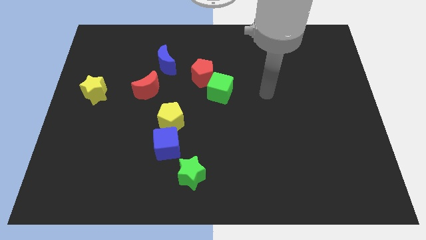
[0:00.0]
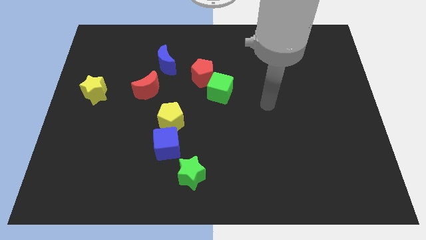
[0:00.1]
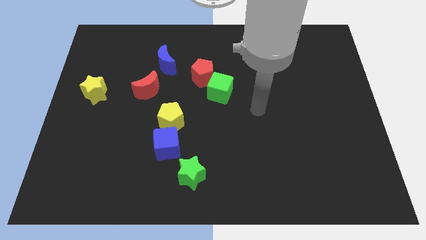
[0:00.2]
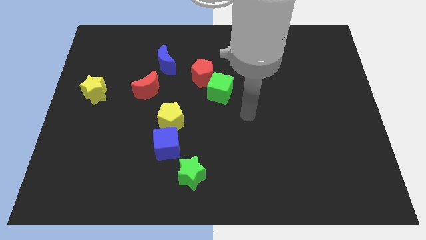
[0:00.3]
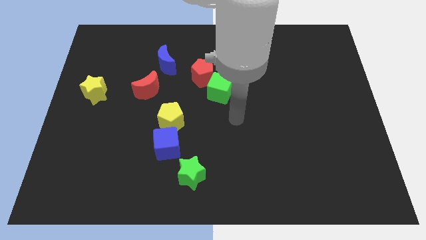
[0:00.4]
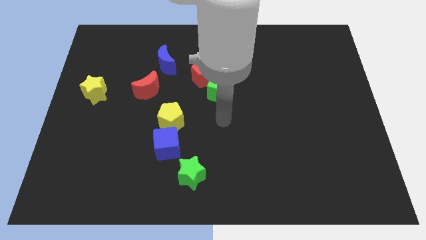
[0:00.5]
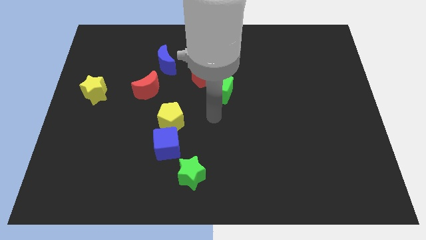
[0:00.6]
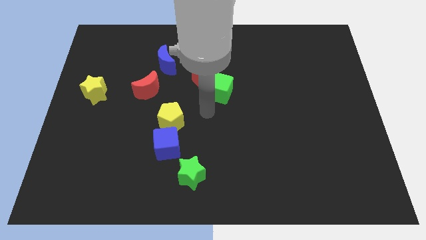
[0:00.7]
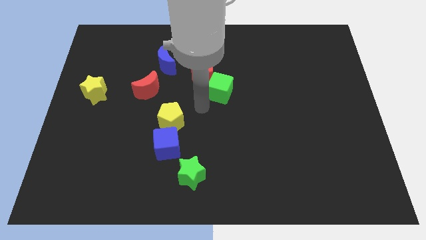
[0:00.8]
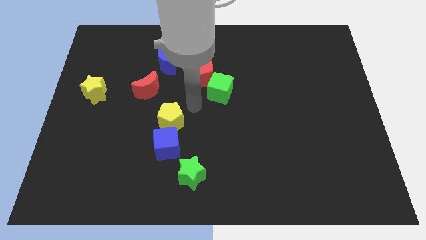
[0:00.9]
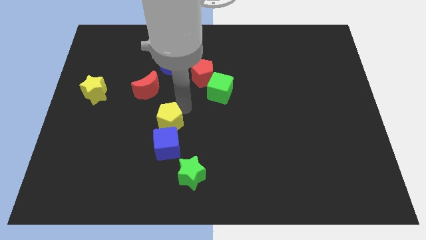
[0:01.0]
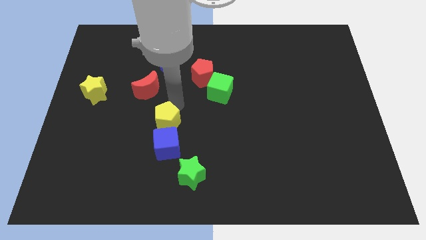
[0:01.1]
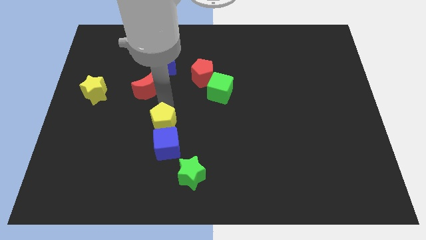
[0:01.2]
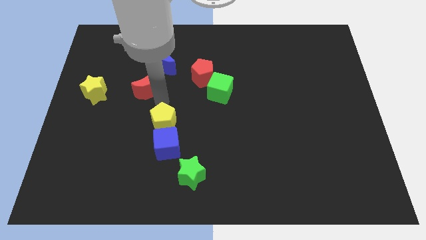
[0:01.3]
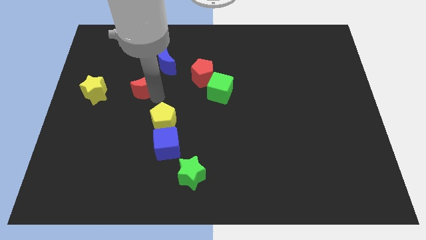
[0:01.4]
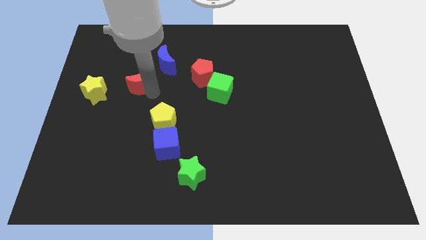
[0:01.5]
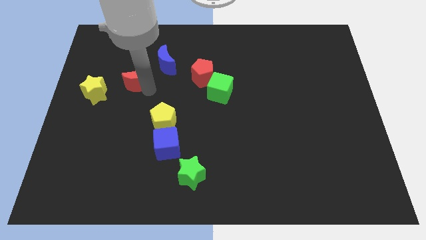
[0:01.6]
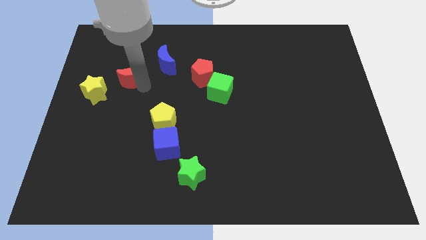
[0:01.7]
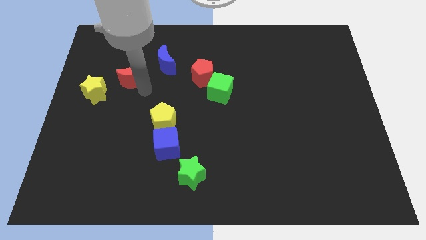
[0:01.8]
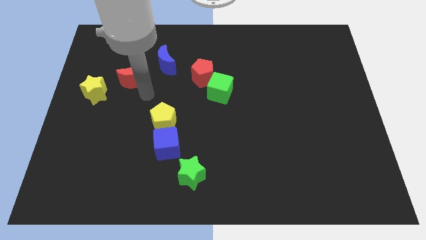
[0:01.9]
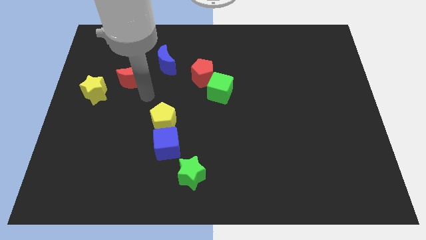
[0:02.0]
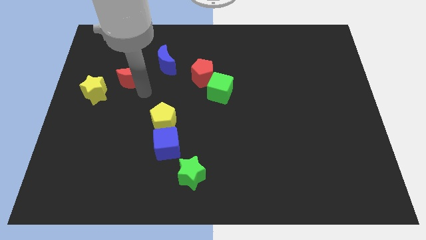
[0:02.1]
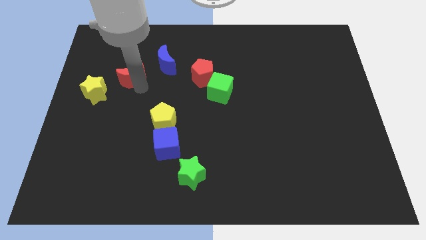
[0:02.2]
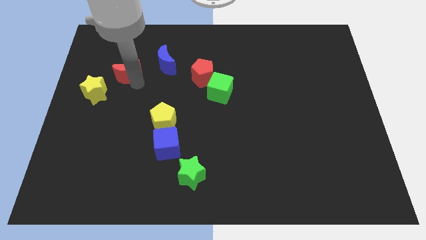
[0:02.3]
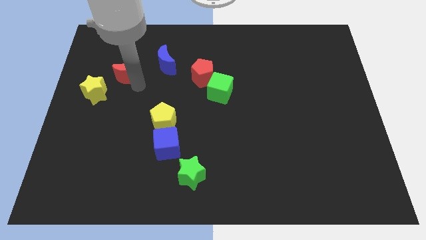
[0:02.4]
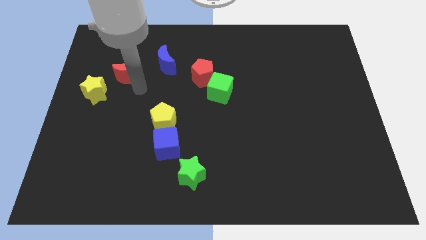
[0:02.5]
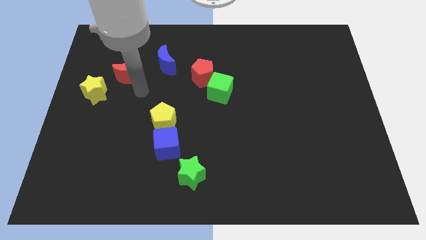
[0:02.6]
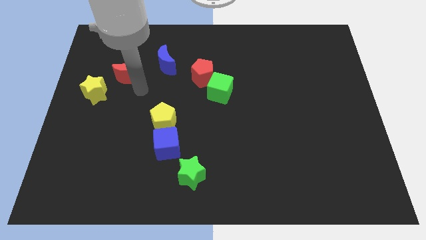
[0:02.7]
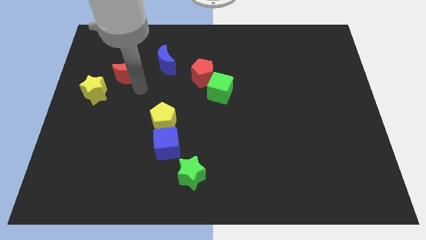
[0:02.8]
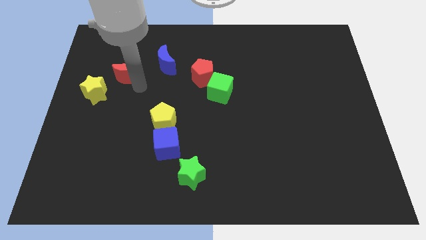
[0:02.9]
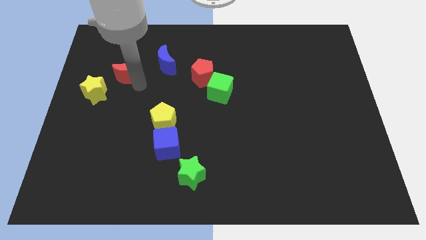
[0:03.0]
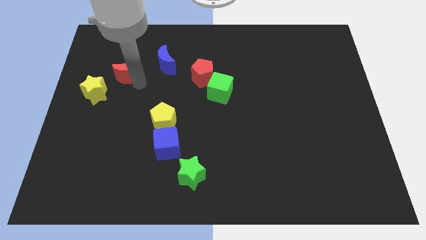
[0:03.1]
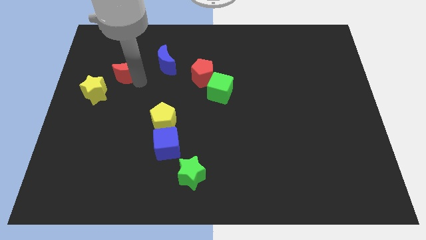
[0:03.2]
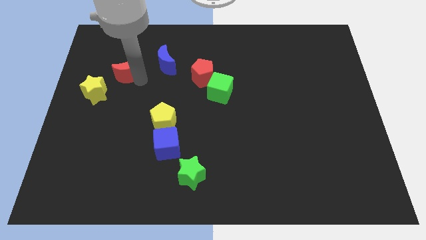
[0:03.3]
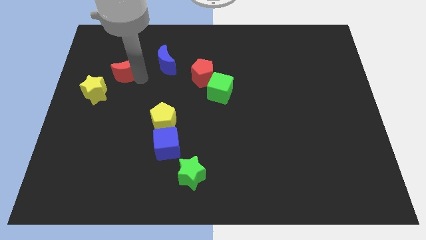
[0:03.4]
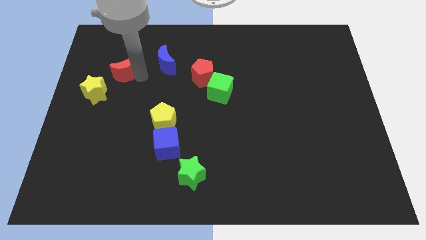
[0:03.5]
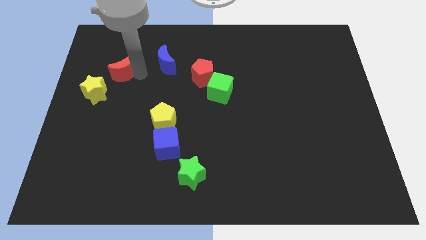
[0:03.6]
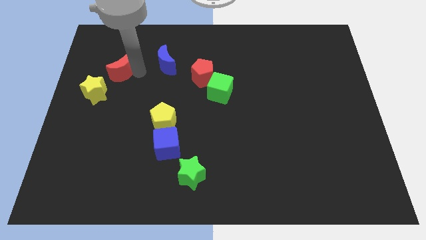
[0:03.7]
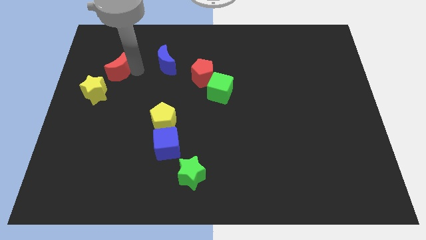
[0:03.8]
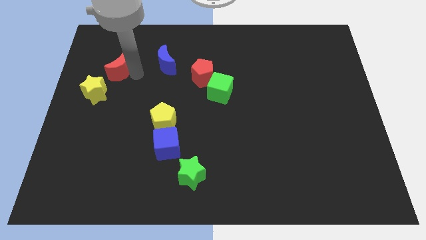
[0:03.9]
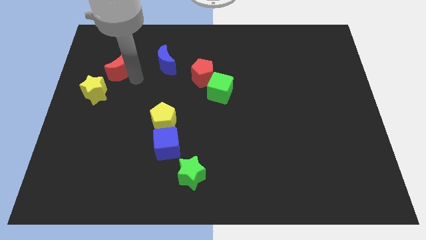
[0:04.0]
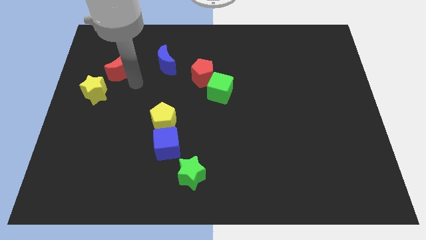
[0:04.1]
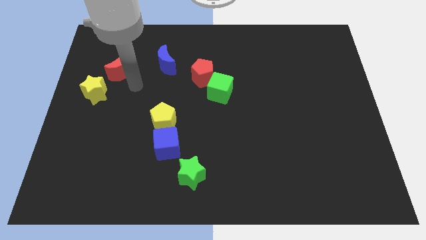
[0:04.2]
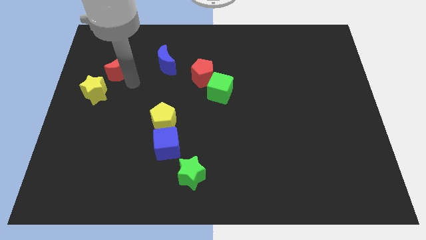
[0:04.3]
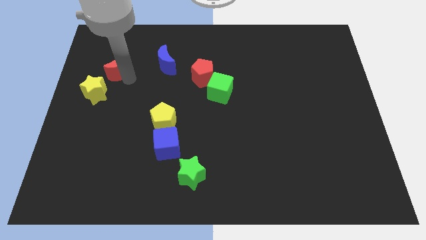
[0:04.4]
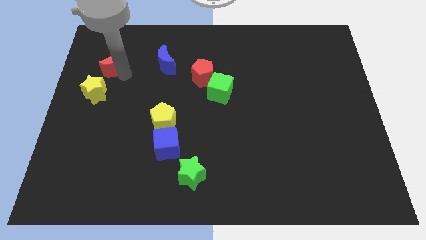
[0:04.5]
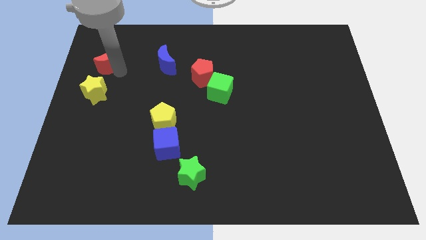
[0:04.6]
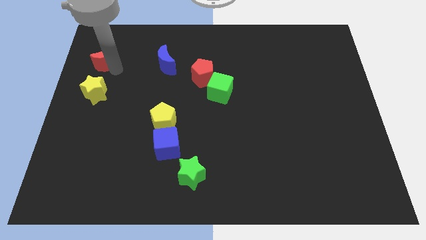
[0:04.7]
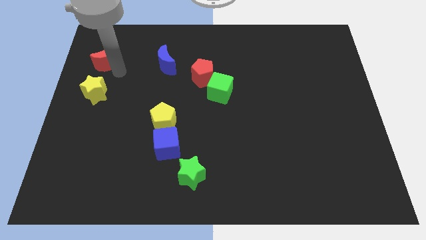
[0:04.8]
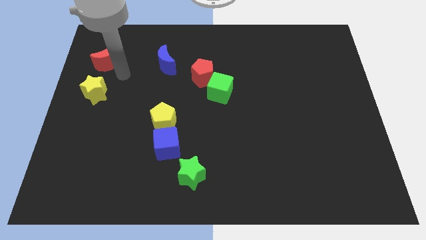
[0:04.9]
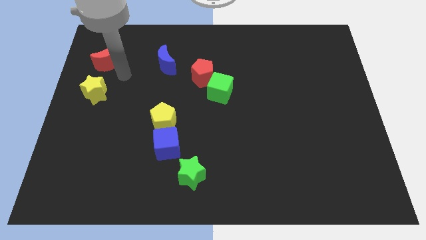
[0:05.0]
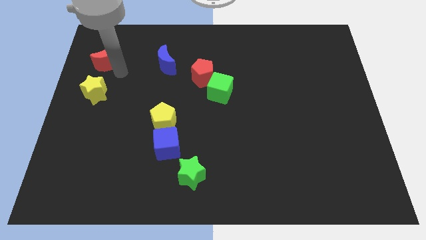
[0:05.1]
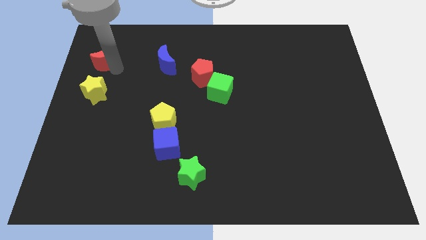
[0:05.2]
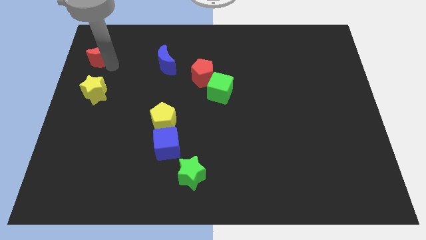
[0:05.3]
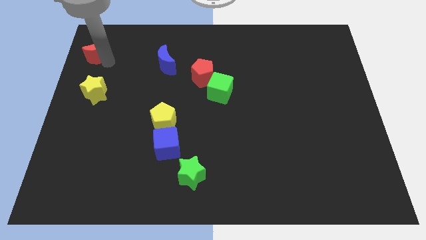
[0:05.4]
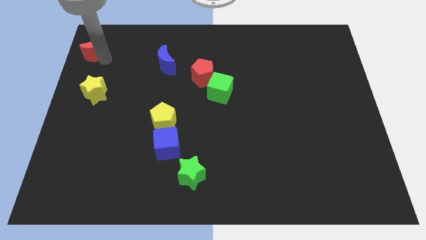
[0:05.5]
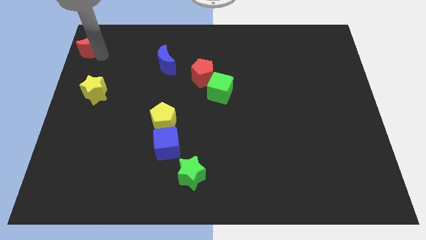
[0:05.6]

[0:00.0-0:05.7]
put the red moon to the top left corner
